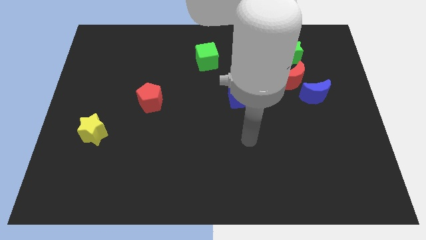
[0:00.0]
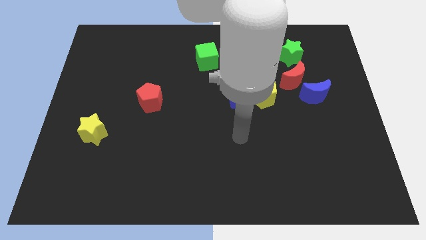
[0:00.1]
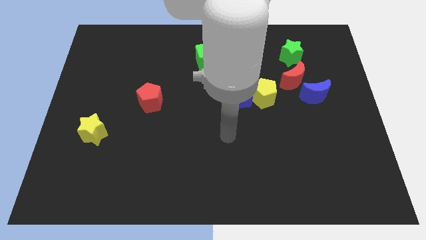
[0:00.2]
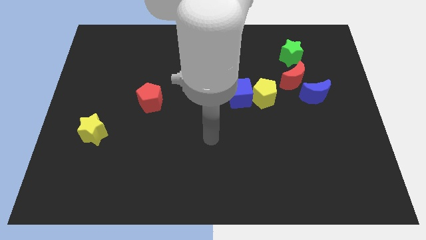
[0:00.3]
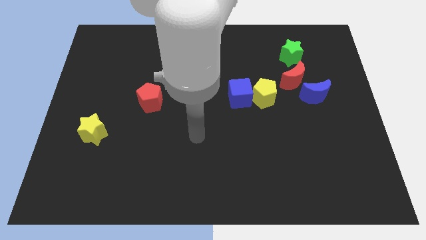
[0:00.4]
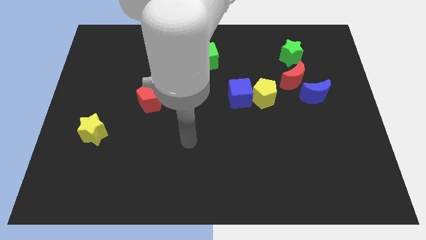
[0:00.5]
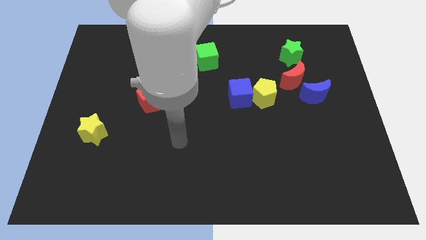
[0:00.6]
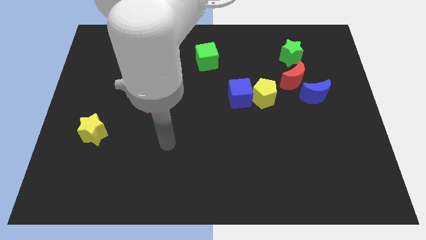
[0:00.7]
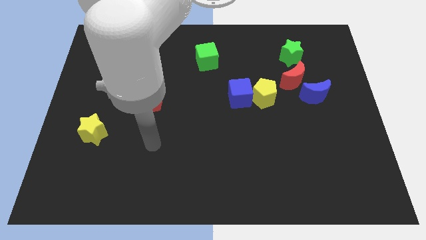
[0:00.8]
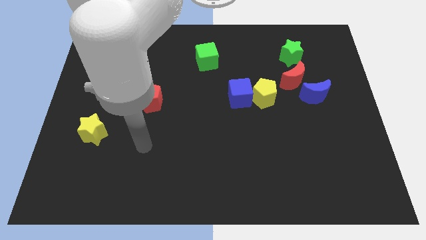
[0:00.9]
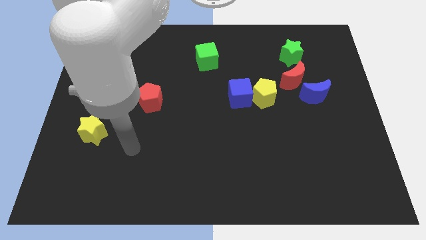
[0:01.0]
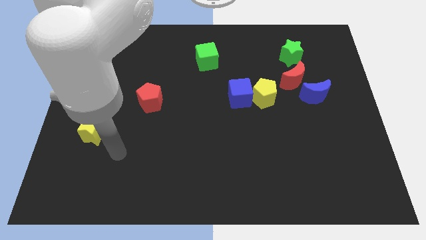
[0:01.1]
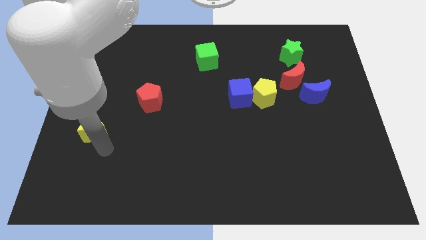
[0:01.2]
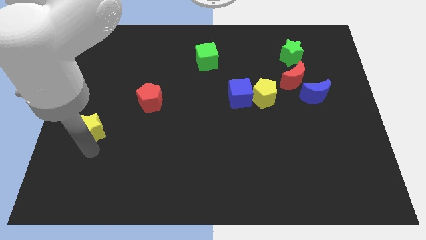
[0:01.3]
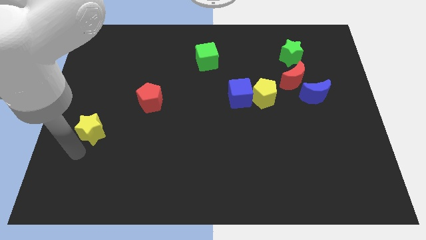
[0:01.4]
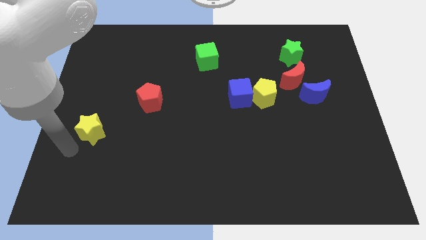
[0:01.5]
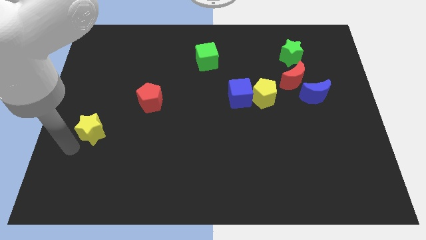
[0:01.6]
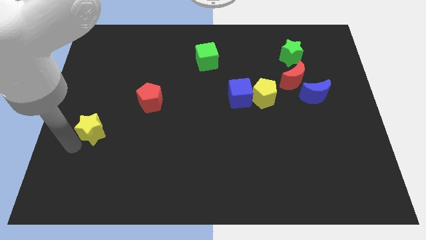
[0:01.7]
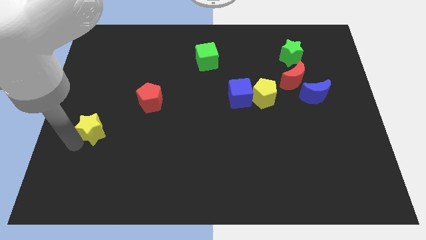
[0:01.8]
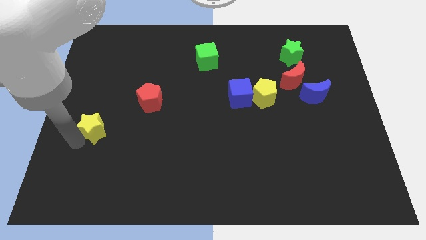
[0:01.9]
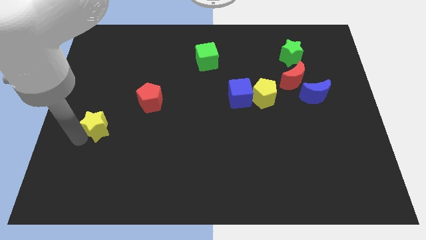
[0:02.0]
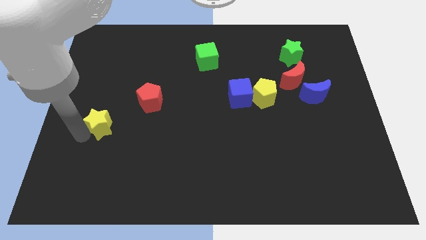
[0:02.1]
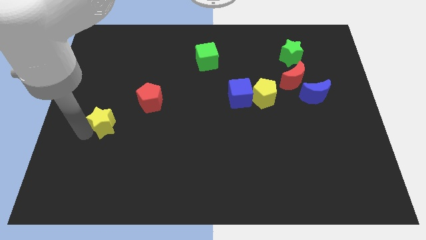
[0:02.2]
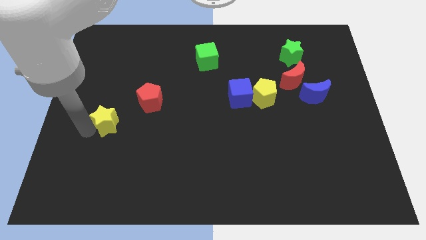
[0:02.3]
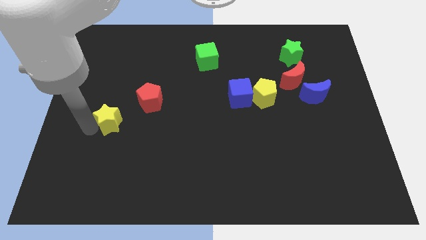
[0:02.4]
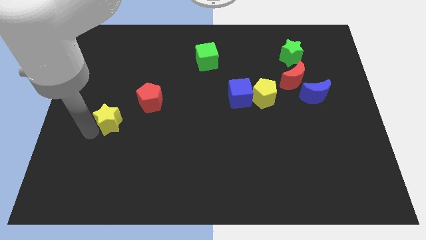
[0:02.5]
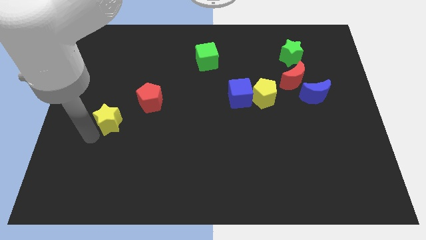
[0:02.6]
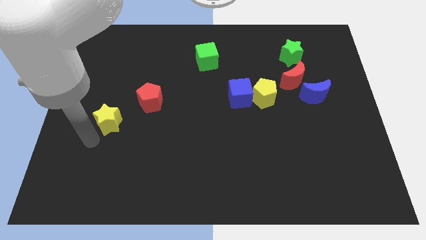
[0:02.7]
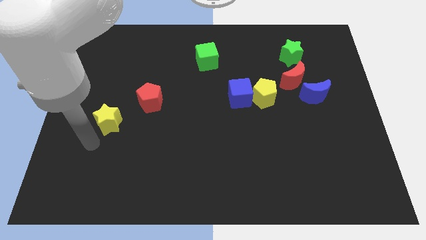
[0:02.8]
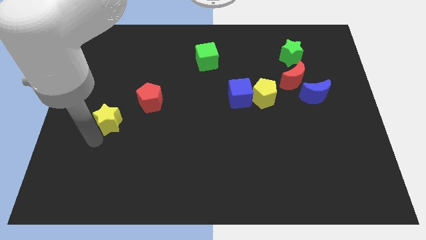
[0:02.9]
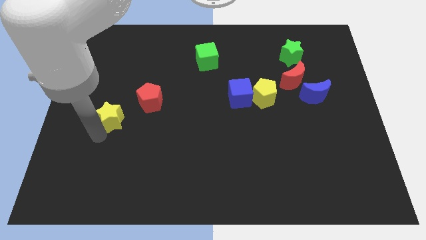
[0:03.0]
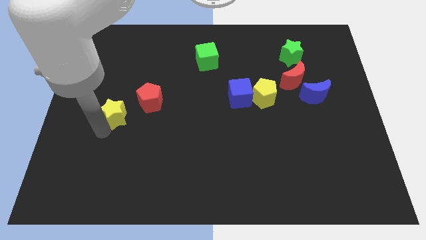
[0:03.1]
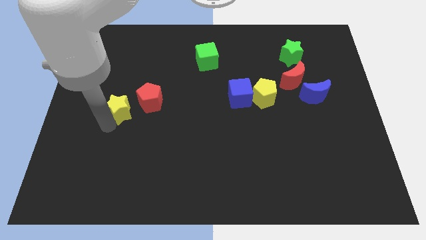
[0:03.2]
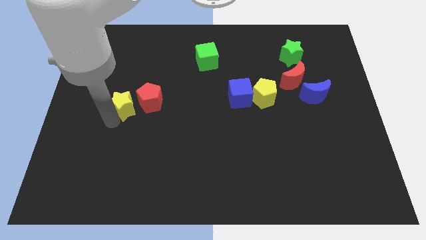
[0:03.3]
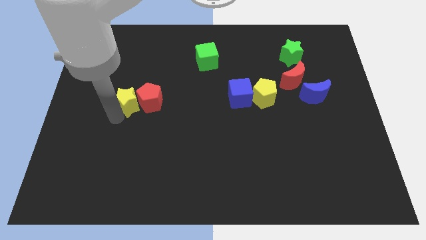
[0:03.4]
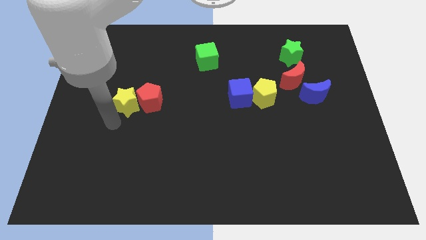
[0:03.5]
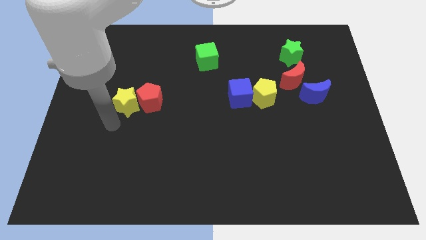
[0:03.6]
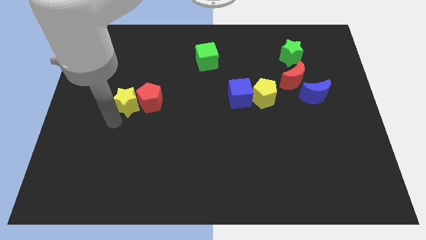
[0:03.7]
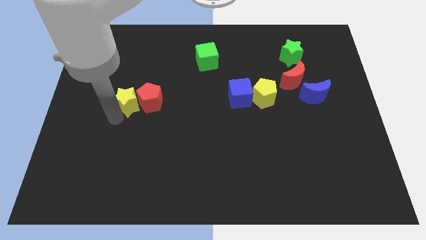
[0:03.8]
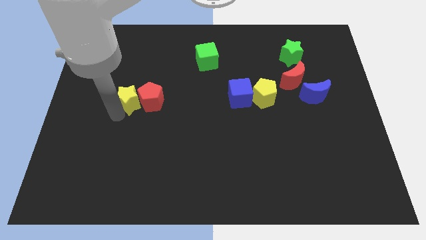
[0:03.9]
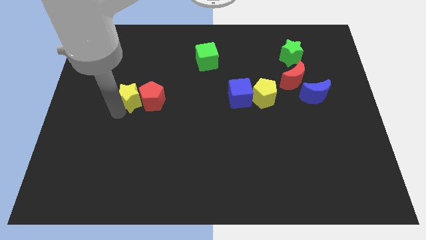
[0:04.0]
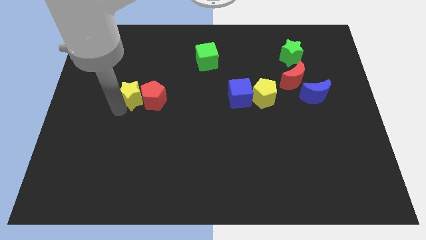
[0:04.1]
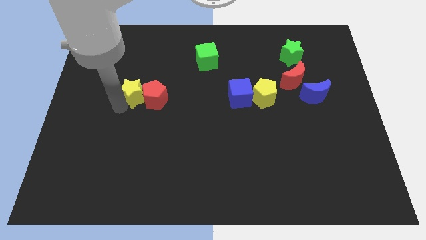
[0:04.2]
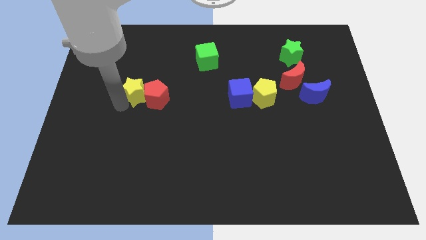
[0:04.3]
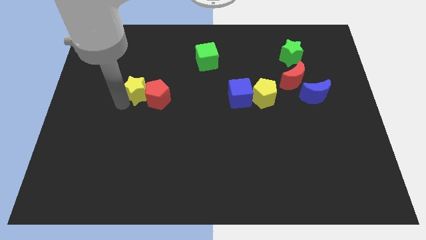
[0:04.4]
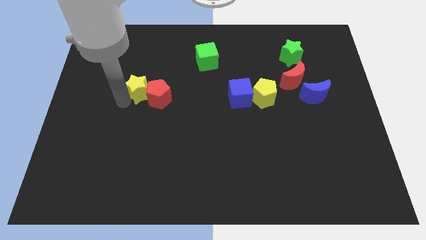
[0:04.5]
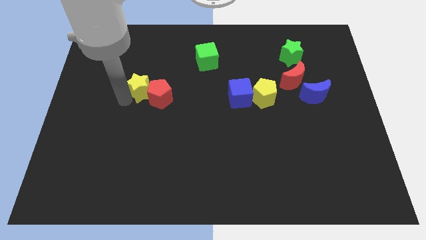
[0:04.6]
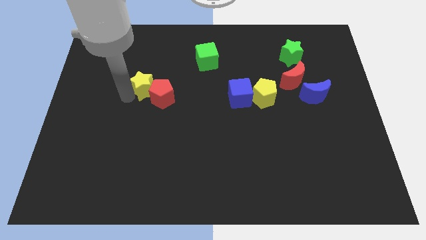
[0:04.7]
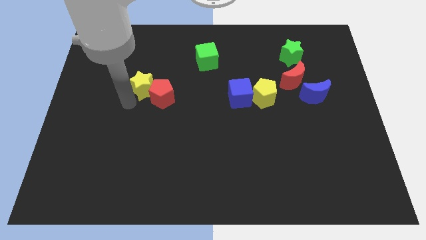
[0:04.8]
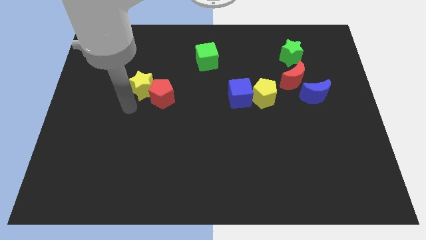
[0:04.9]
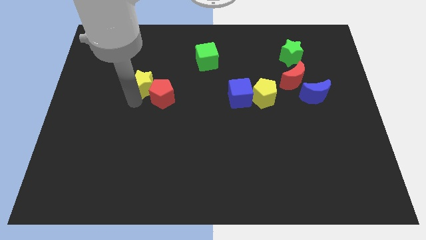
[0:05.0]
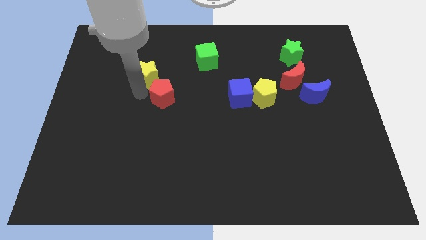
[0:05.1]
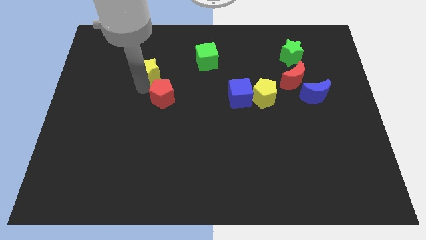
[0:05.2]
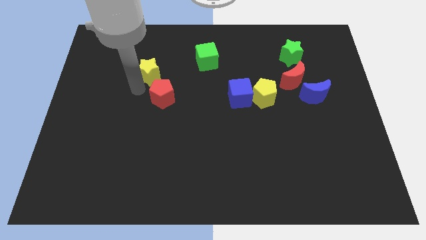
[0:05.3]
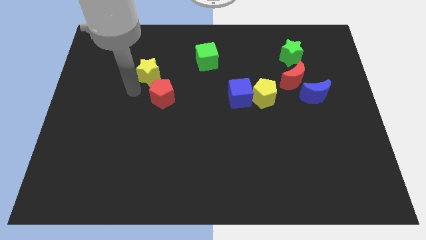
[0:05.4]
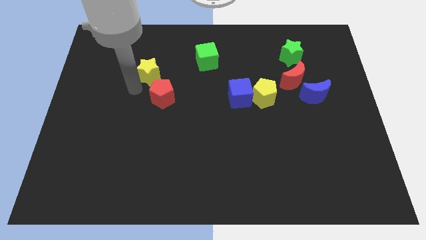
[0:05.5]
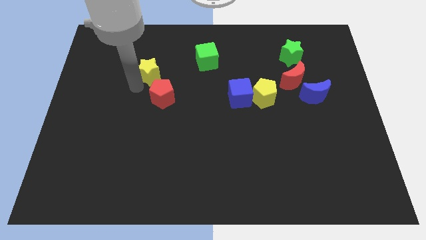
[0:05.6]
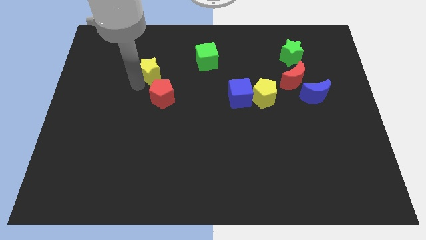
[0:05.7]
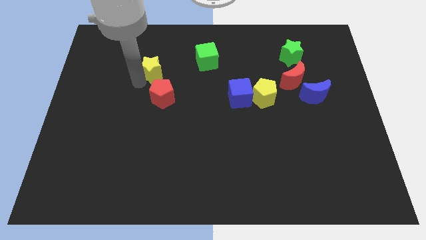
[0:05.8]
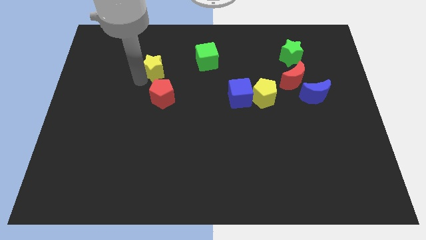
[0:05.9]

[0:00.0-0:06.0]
slide the yellow star left of the green cube

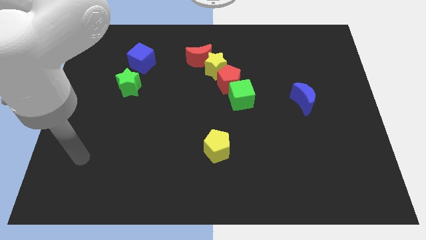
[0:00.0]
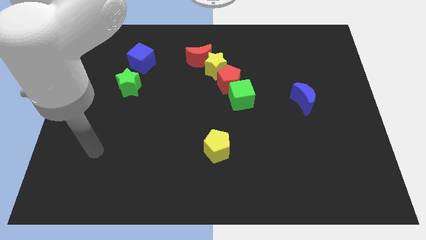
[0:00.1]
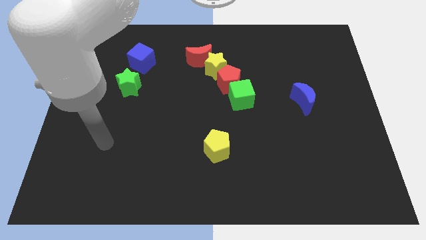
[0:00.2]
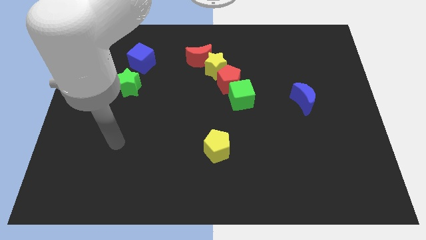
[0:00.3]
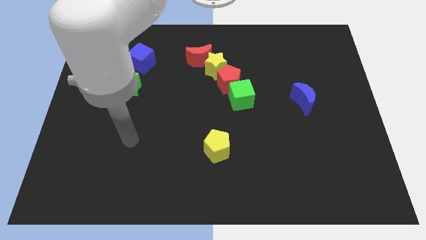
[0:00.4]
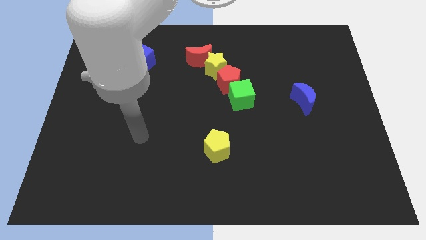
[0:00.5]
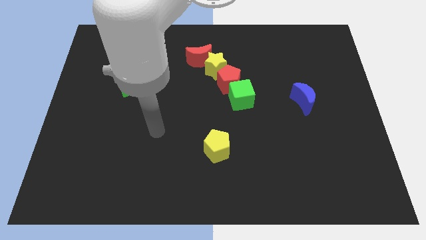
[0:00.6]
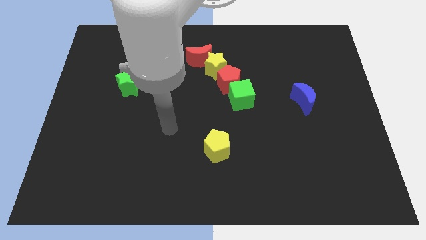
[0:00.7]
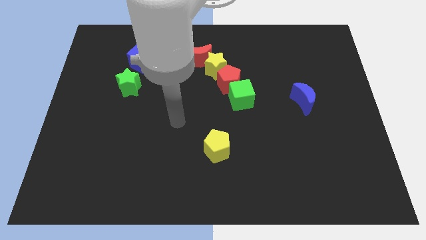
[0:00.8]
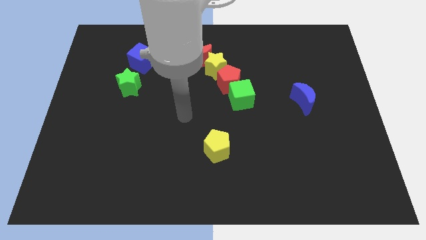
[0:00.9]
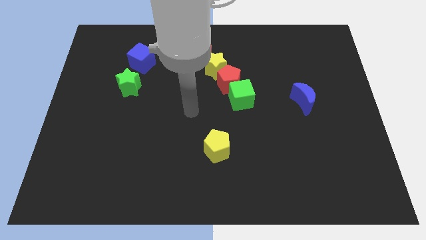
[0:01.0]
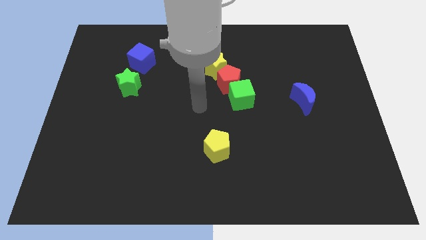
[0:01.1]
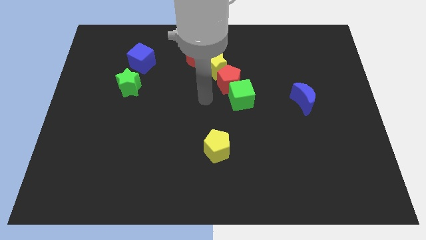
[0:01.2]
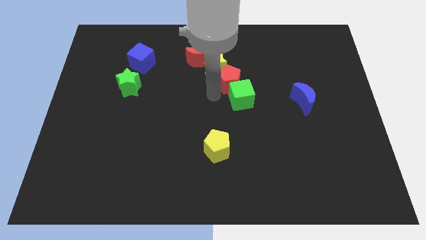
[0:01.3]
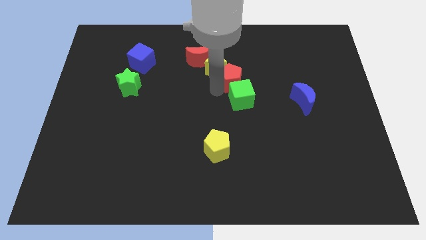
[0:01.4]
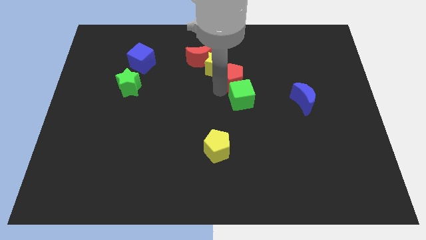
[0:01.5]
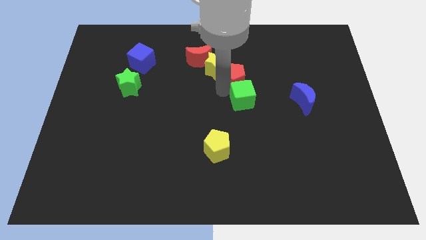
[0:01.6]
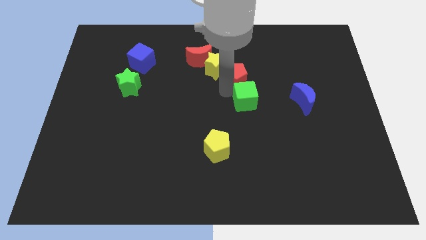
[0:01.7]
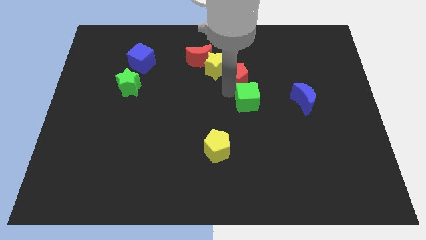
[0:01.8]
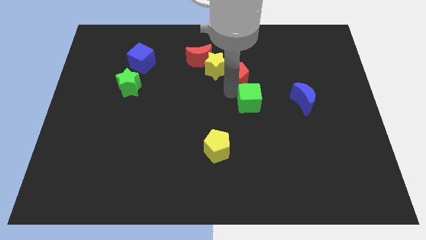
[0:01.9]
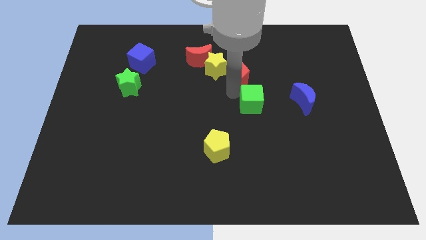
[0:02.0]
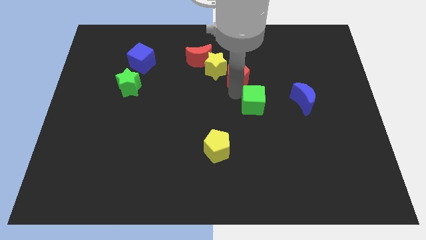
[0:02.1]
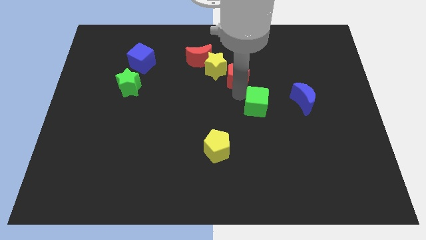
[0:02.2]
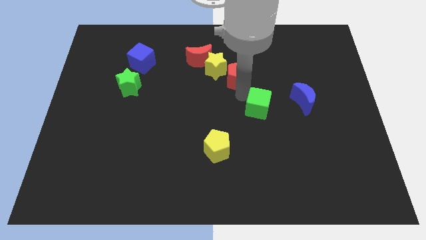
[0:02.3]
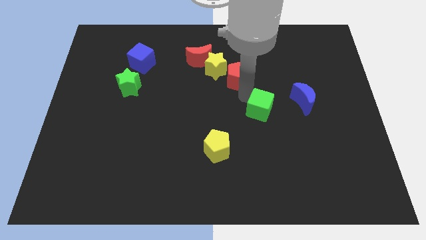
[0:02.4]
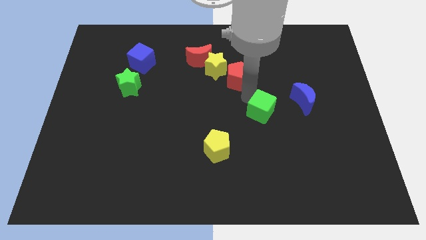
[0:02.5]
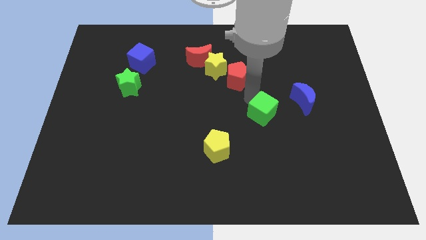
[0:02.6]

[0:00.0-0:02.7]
slide the green cube diagonally down and to the left of the blue moon
